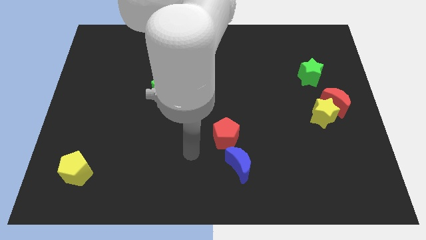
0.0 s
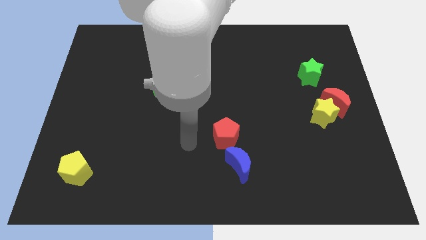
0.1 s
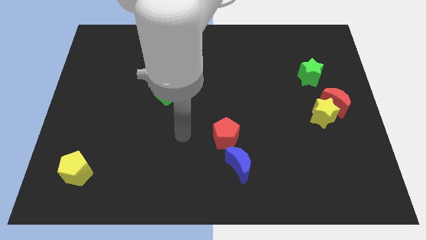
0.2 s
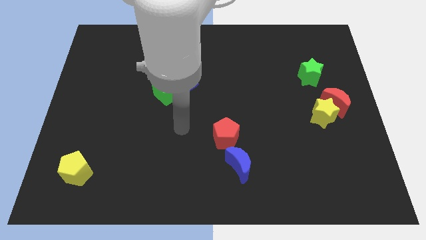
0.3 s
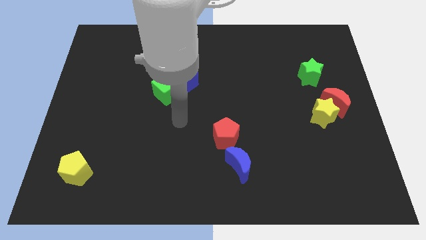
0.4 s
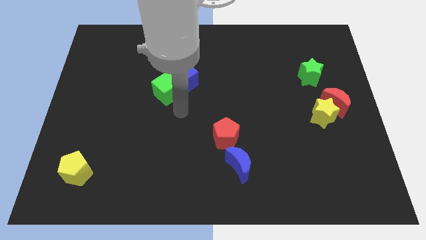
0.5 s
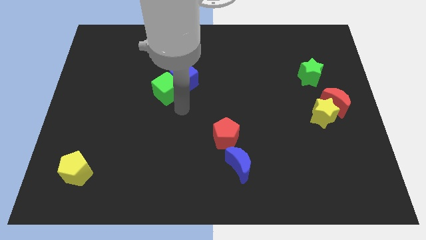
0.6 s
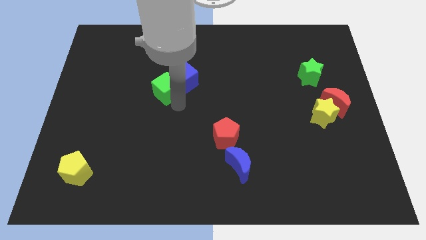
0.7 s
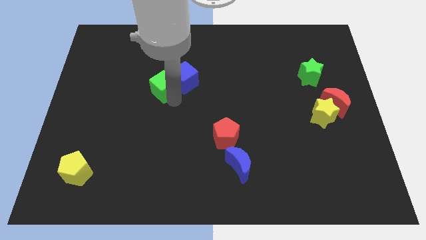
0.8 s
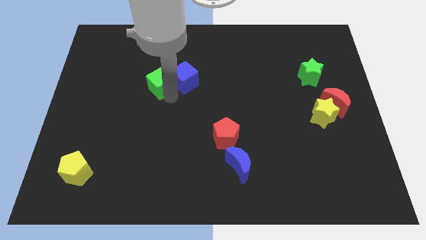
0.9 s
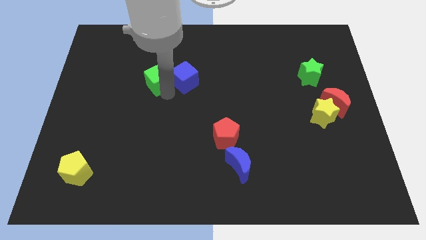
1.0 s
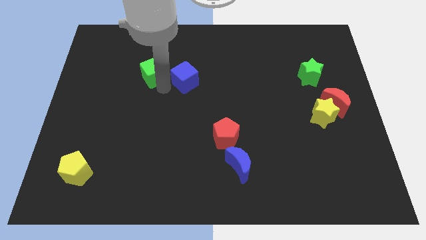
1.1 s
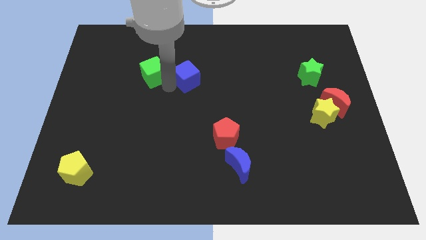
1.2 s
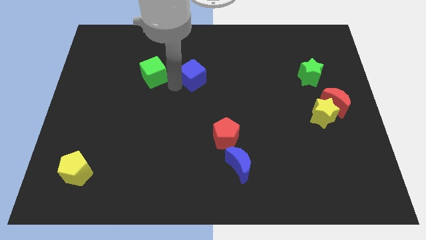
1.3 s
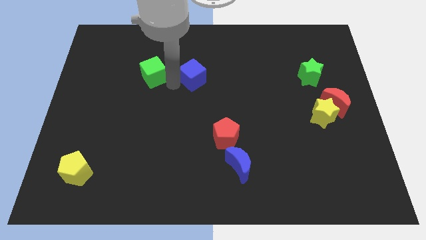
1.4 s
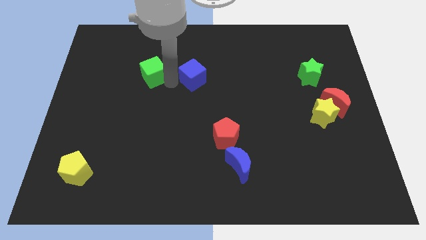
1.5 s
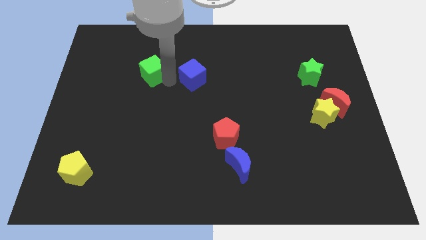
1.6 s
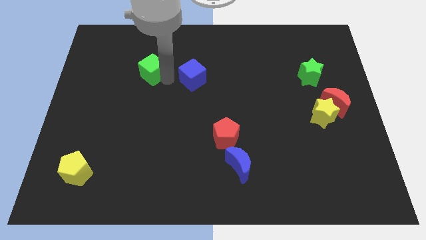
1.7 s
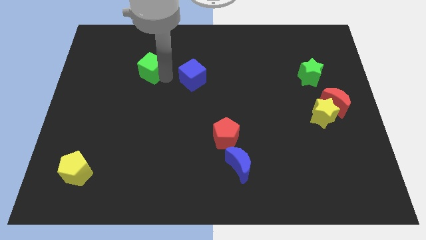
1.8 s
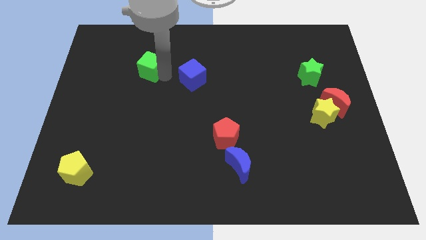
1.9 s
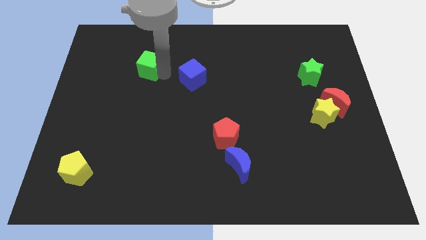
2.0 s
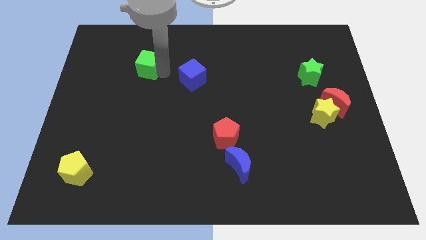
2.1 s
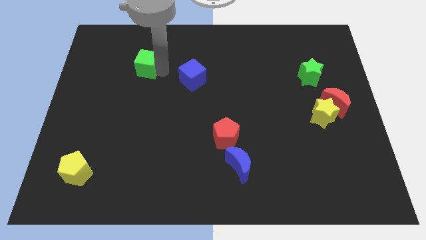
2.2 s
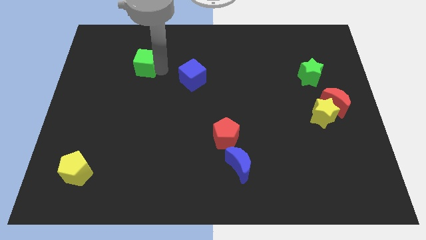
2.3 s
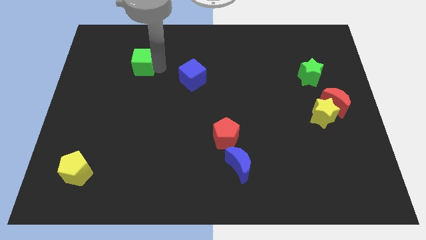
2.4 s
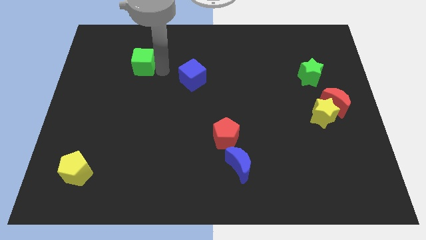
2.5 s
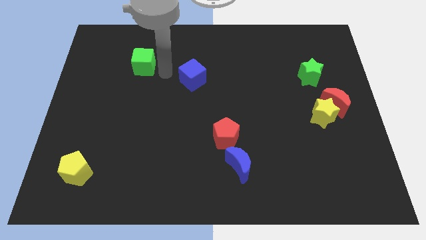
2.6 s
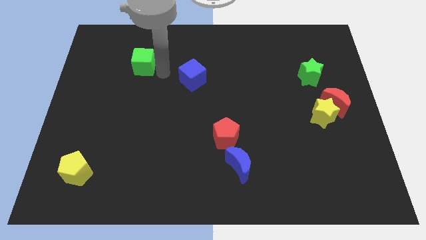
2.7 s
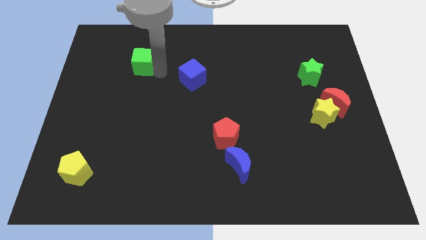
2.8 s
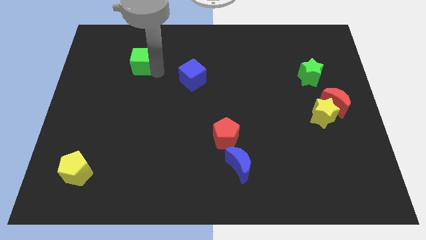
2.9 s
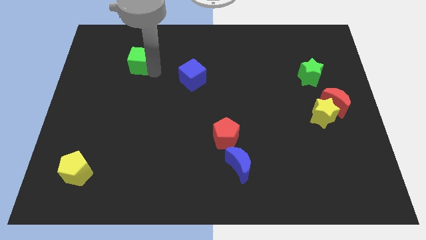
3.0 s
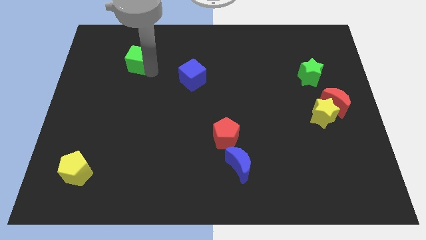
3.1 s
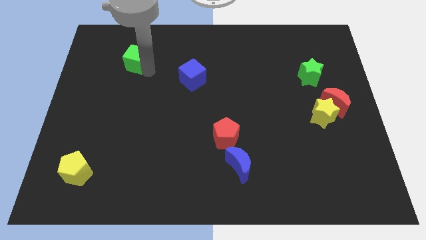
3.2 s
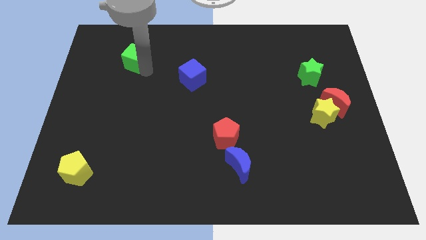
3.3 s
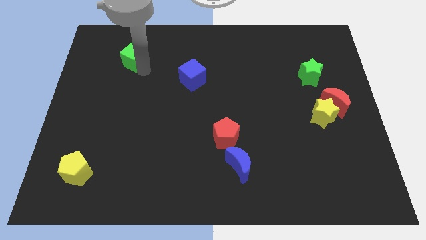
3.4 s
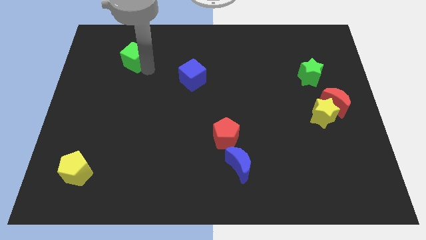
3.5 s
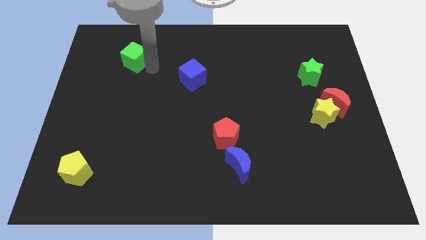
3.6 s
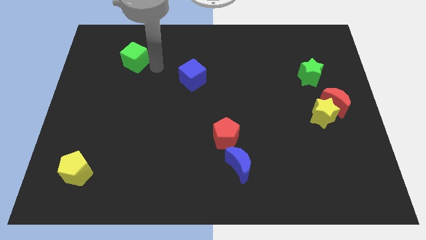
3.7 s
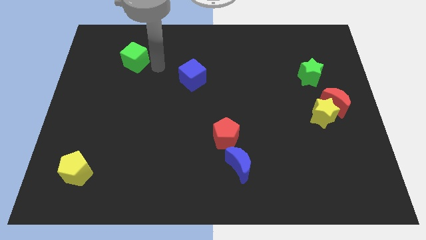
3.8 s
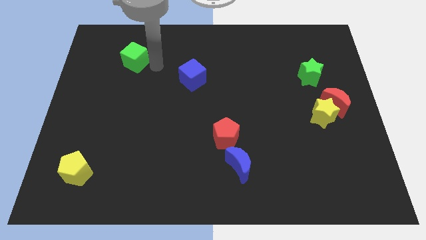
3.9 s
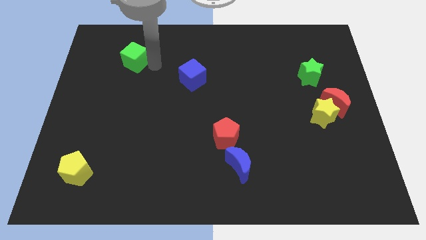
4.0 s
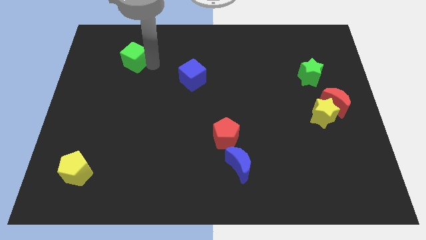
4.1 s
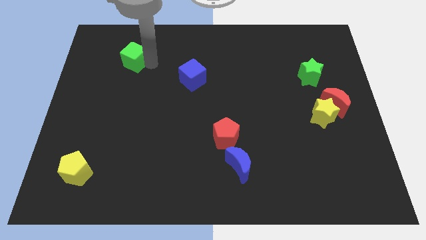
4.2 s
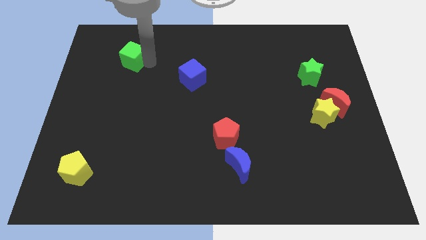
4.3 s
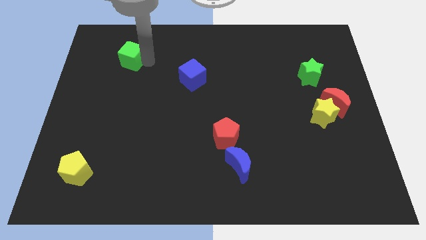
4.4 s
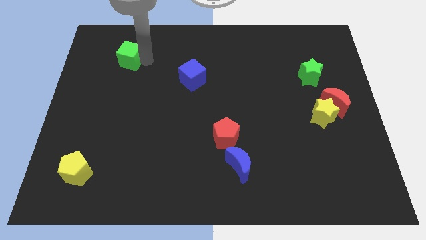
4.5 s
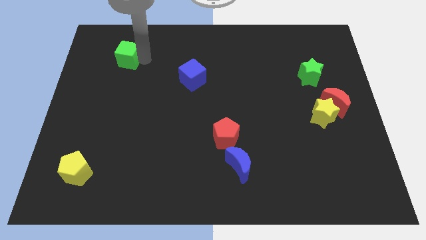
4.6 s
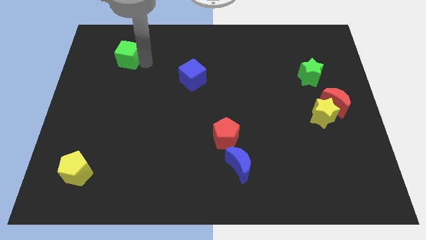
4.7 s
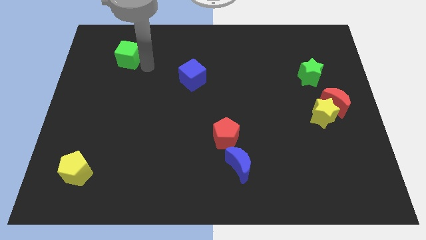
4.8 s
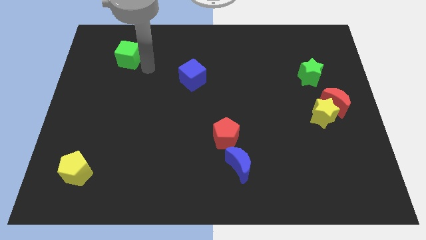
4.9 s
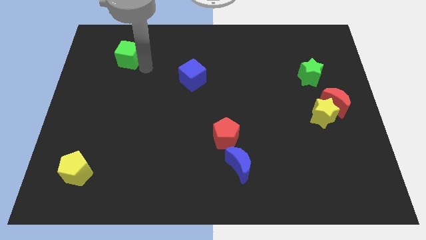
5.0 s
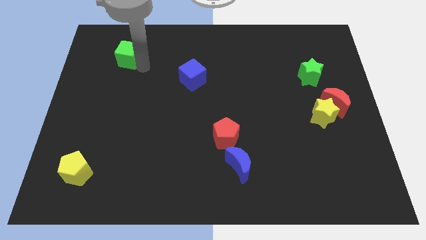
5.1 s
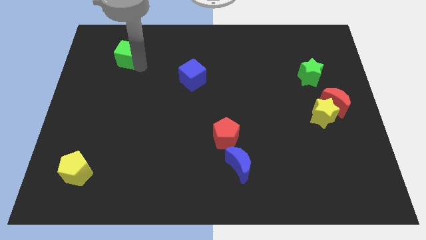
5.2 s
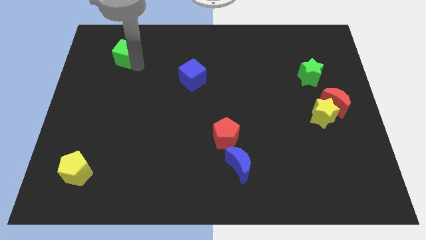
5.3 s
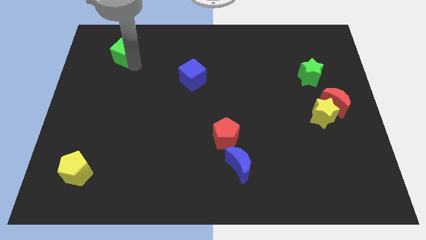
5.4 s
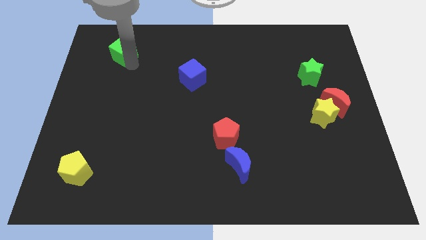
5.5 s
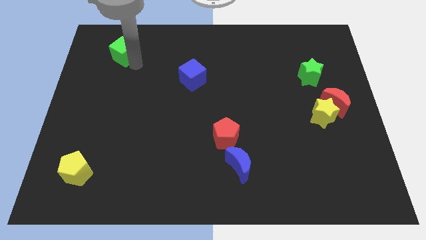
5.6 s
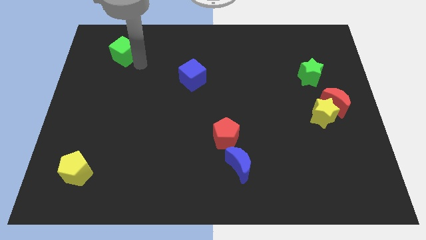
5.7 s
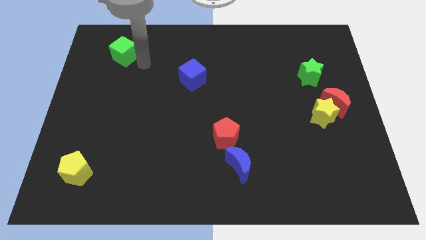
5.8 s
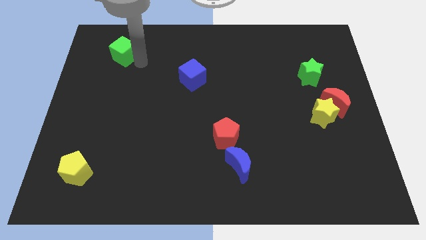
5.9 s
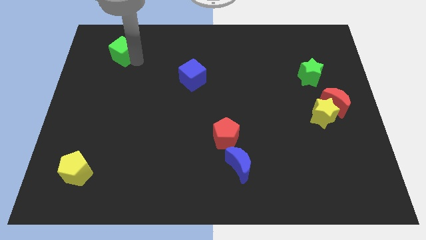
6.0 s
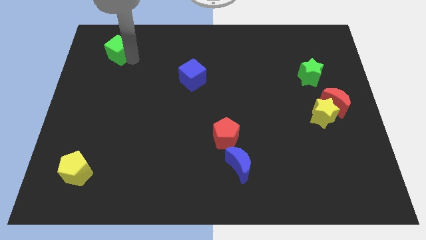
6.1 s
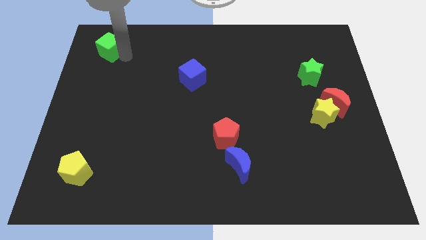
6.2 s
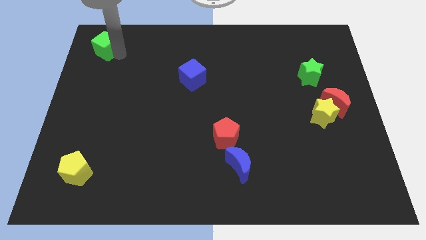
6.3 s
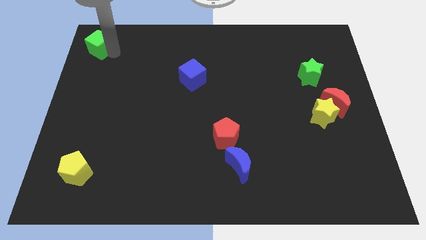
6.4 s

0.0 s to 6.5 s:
move the green cube to the top left corner
